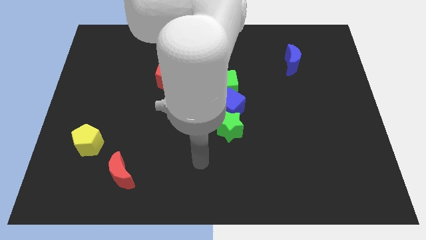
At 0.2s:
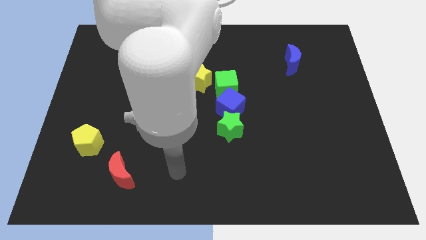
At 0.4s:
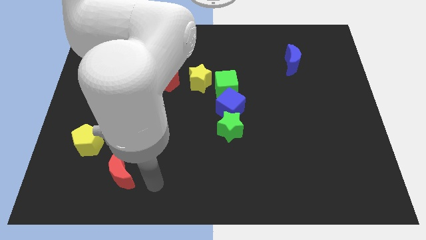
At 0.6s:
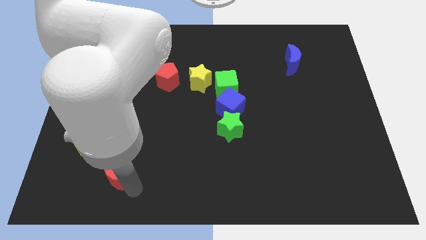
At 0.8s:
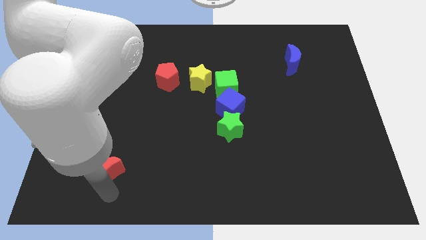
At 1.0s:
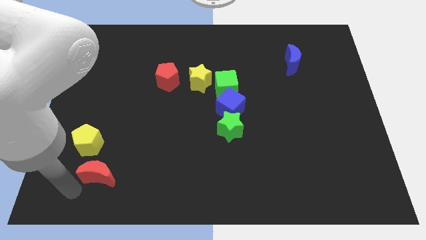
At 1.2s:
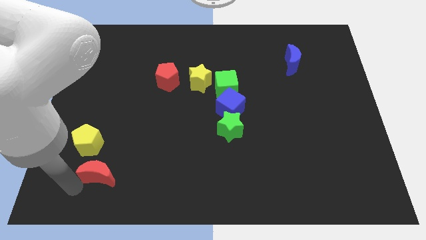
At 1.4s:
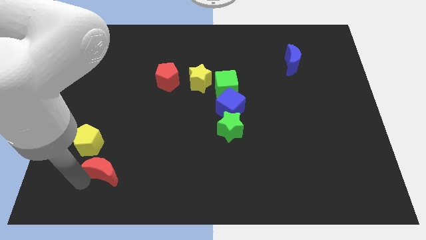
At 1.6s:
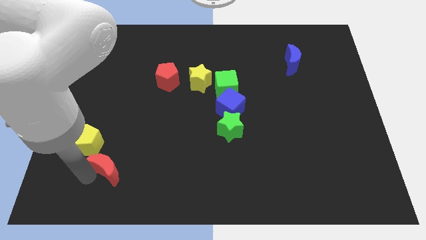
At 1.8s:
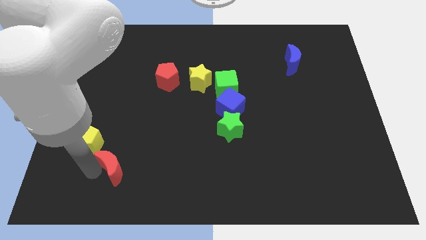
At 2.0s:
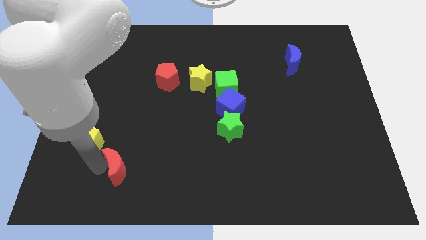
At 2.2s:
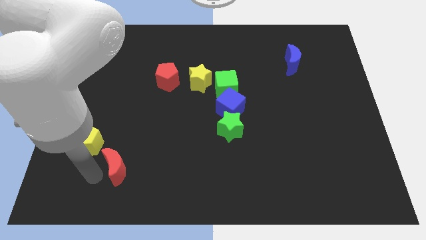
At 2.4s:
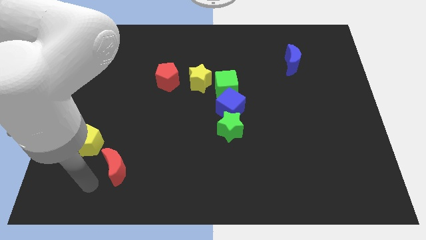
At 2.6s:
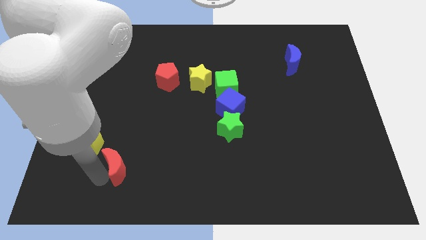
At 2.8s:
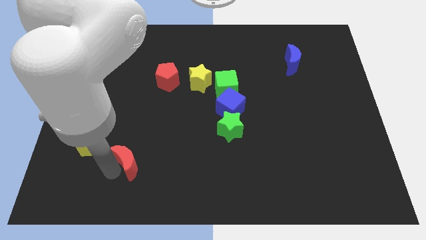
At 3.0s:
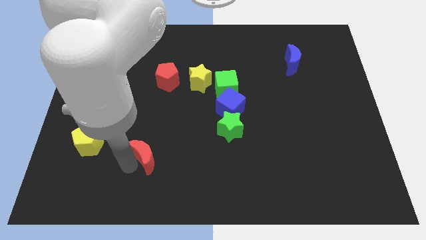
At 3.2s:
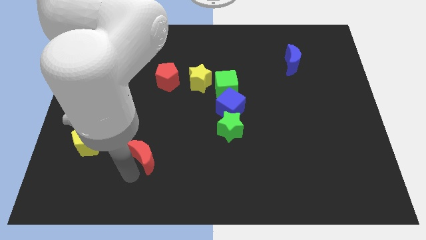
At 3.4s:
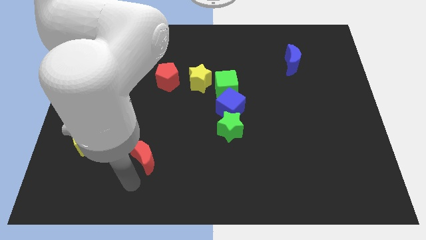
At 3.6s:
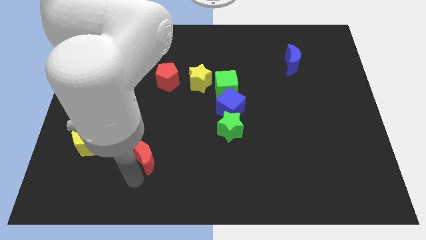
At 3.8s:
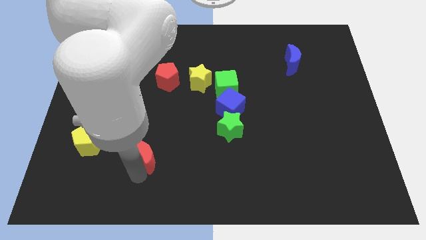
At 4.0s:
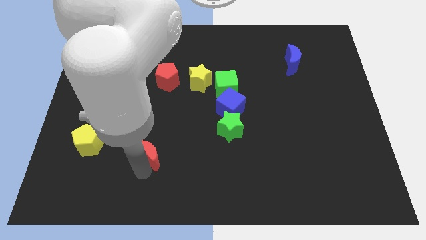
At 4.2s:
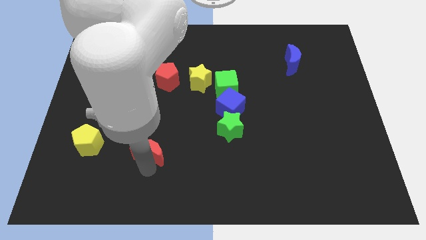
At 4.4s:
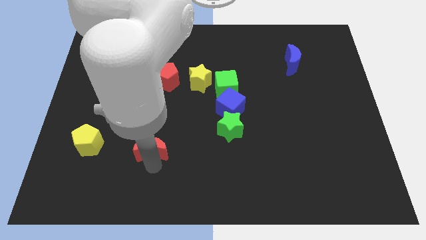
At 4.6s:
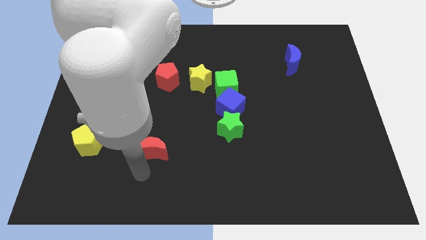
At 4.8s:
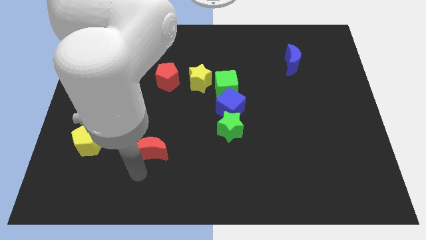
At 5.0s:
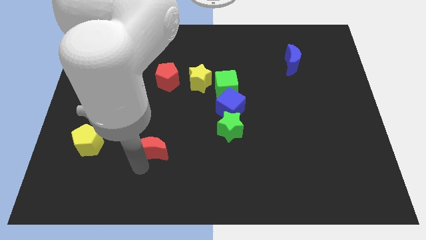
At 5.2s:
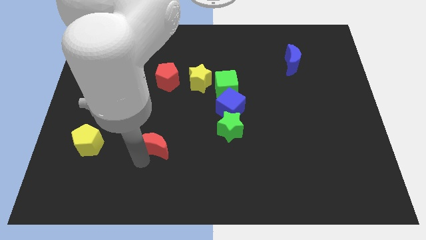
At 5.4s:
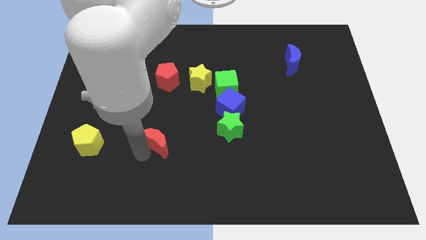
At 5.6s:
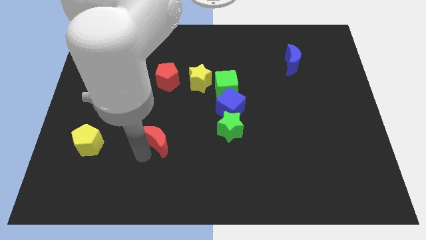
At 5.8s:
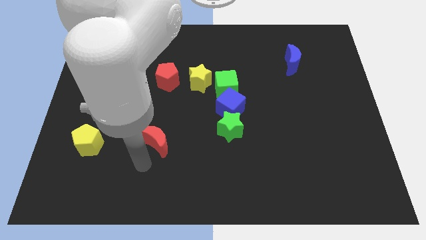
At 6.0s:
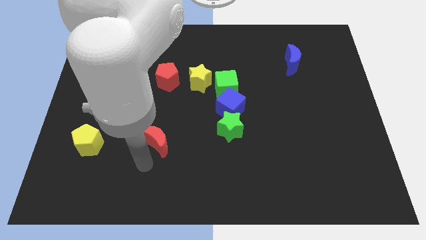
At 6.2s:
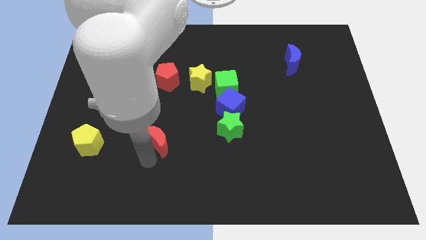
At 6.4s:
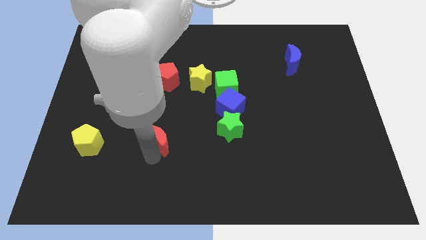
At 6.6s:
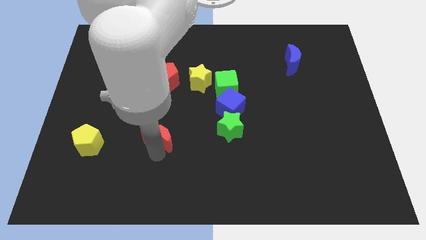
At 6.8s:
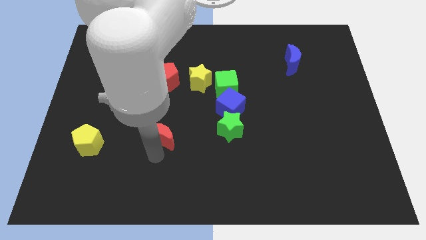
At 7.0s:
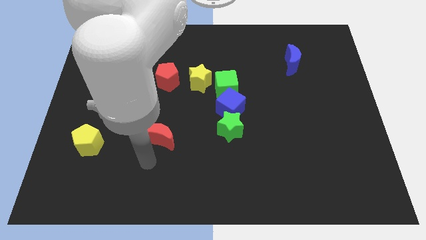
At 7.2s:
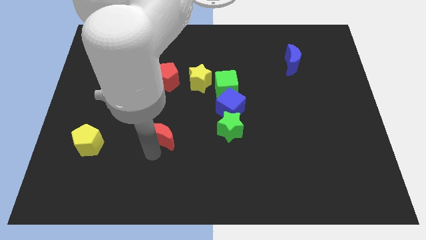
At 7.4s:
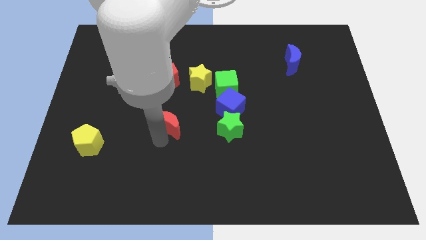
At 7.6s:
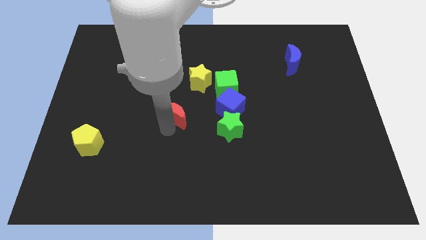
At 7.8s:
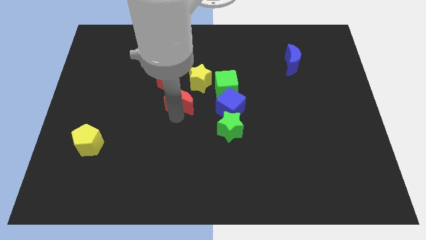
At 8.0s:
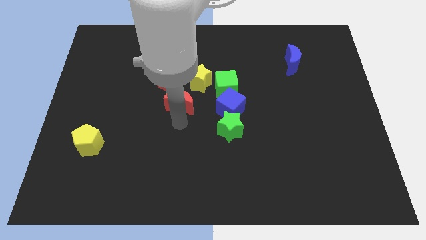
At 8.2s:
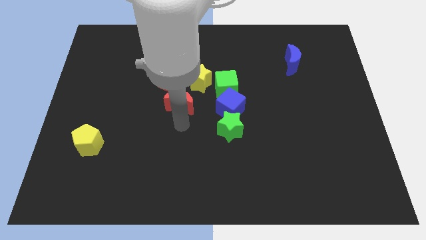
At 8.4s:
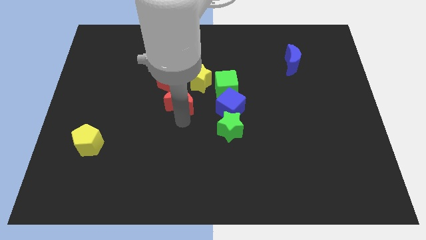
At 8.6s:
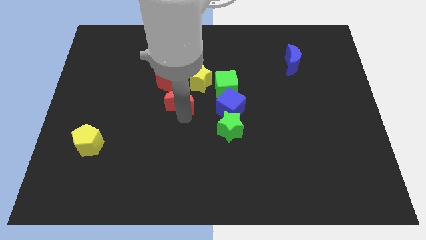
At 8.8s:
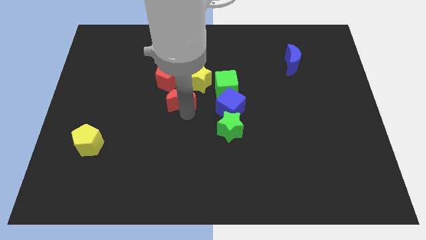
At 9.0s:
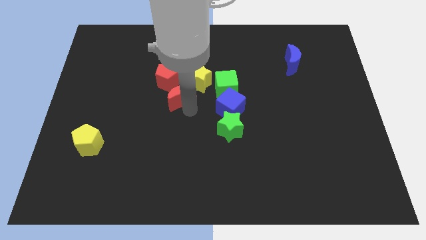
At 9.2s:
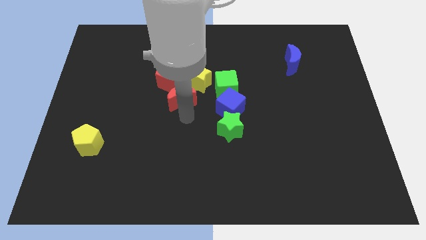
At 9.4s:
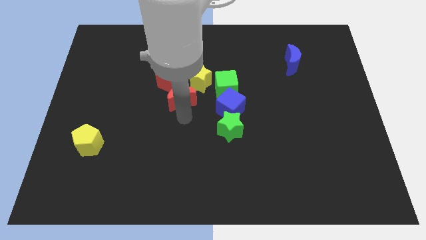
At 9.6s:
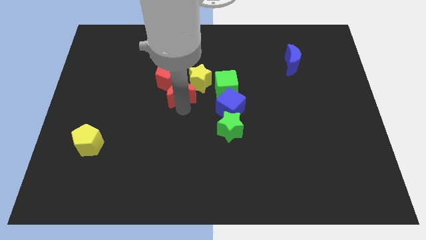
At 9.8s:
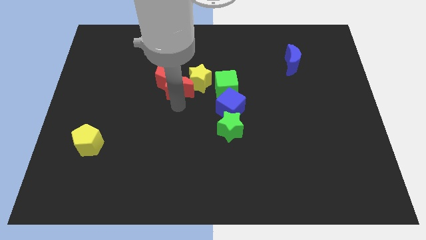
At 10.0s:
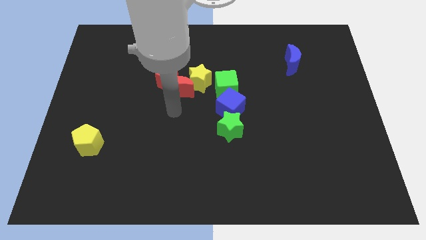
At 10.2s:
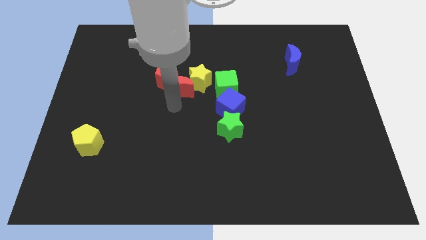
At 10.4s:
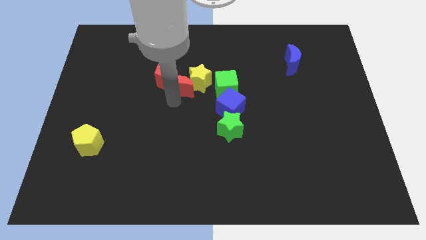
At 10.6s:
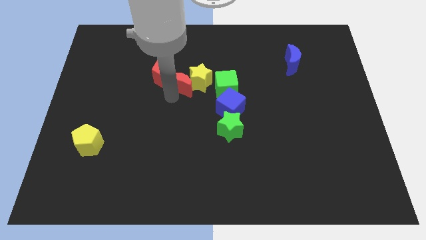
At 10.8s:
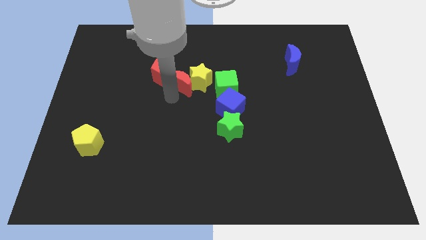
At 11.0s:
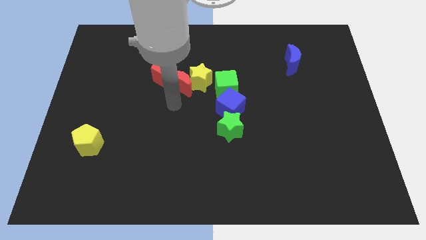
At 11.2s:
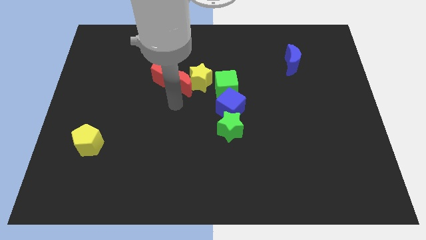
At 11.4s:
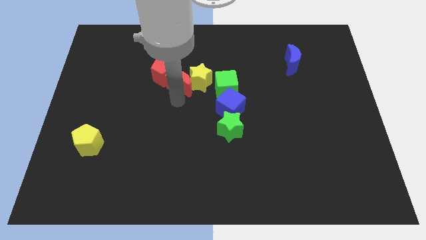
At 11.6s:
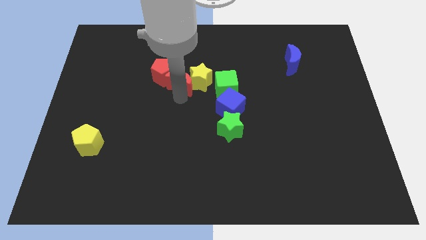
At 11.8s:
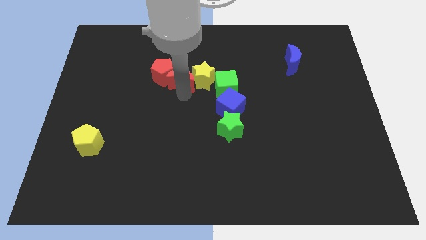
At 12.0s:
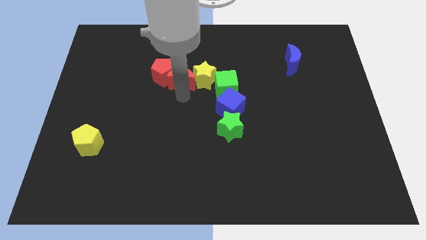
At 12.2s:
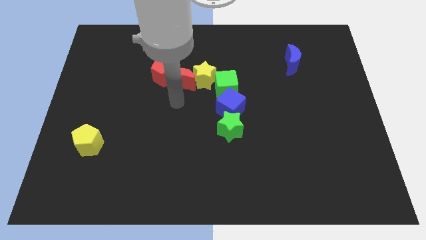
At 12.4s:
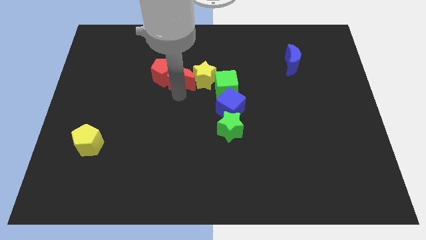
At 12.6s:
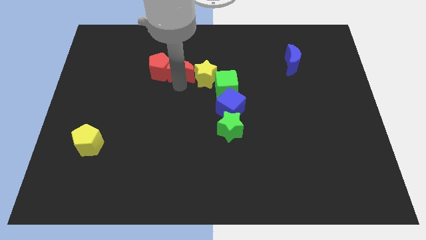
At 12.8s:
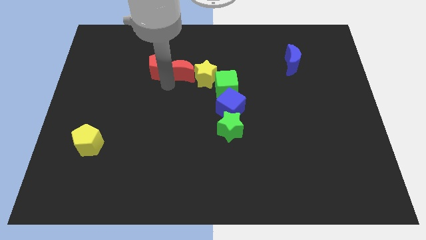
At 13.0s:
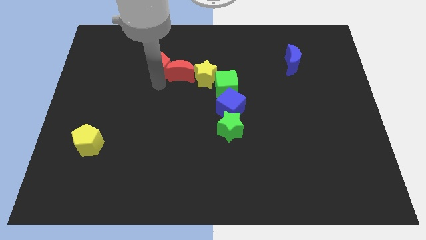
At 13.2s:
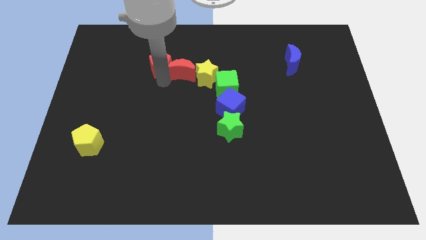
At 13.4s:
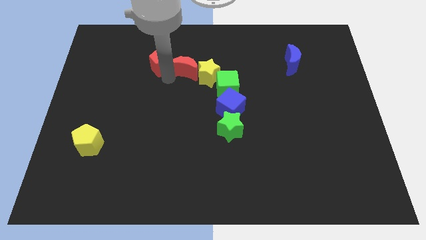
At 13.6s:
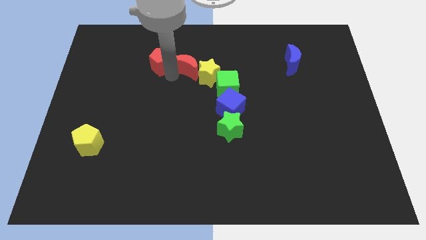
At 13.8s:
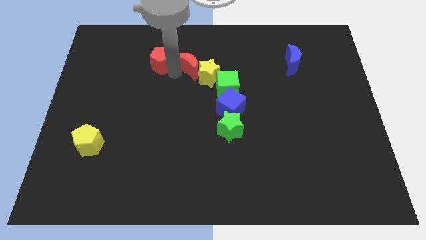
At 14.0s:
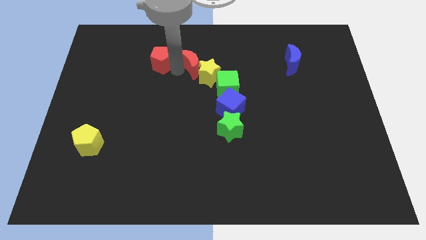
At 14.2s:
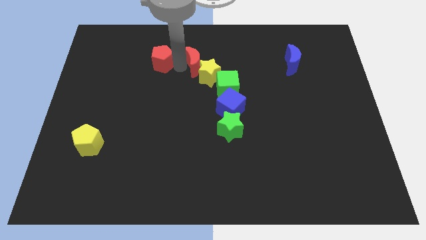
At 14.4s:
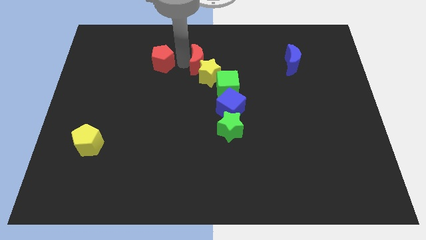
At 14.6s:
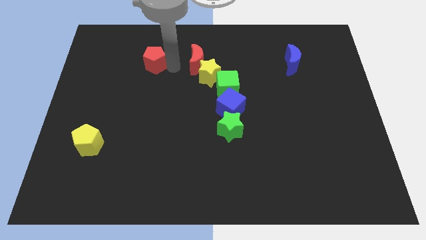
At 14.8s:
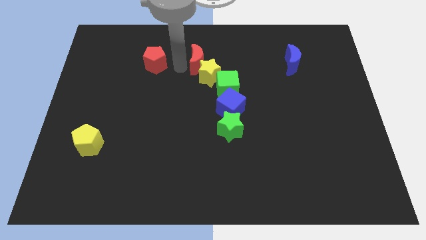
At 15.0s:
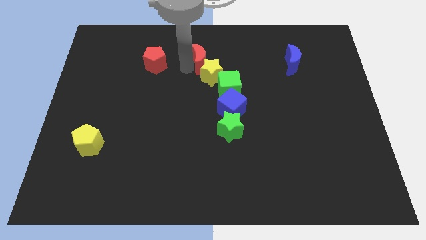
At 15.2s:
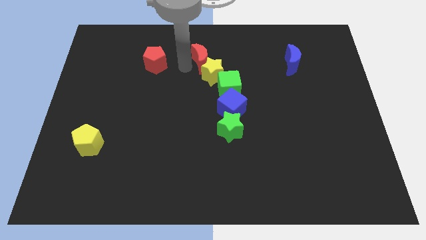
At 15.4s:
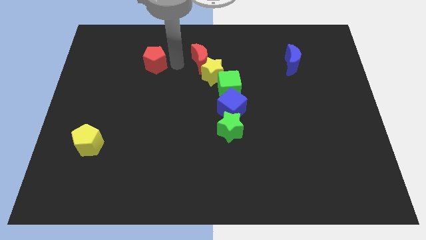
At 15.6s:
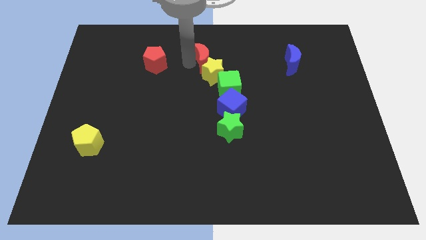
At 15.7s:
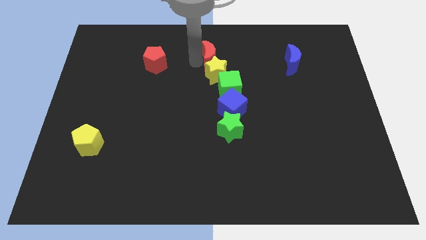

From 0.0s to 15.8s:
put the red moon above the green cube

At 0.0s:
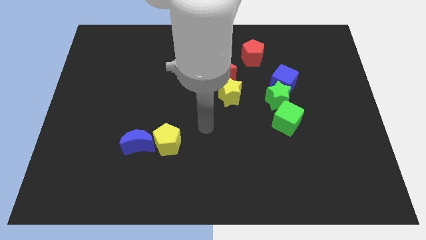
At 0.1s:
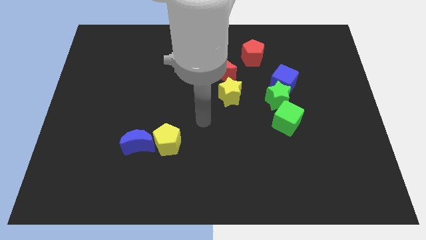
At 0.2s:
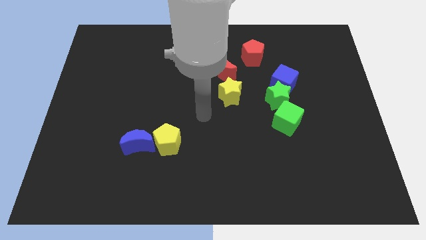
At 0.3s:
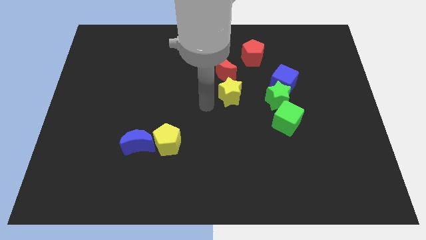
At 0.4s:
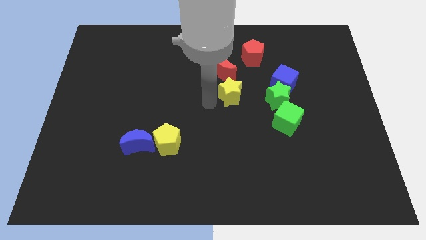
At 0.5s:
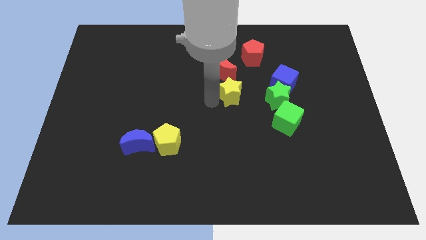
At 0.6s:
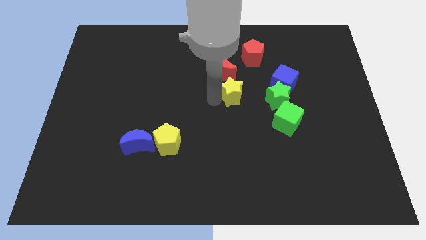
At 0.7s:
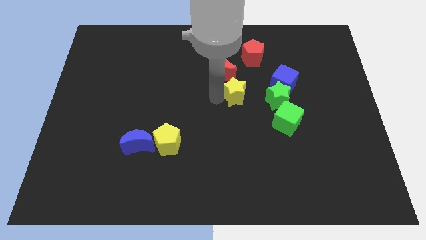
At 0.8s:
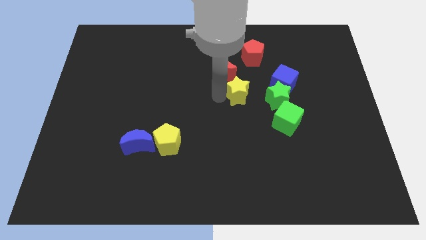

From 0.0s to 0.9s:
put the yellow star to the bottom of the red pentagon
